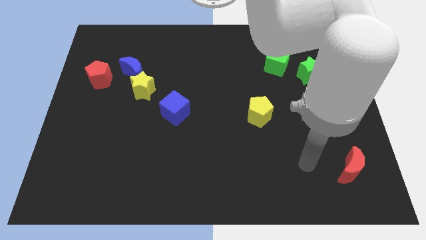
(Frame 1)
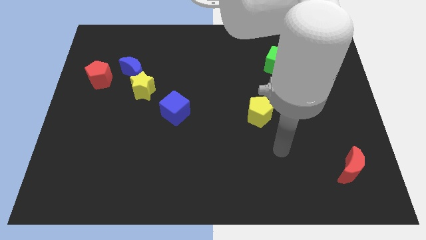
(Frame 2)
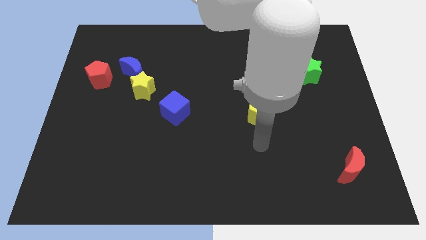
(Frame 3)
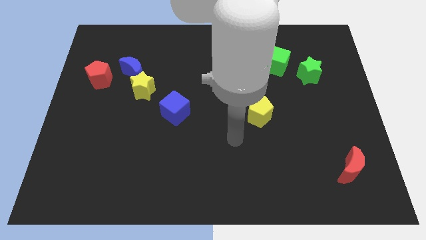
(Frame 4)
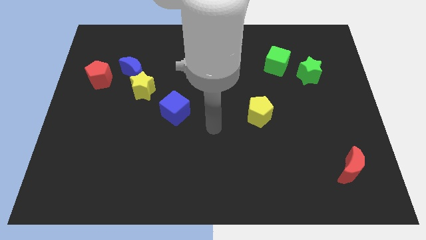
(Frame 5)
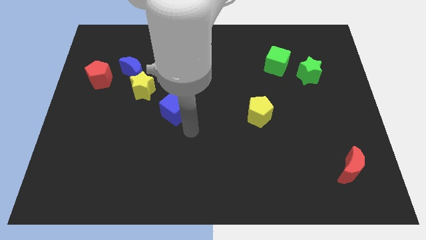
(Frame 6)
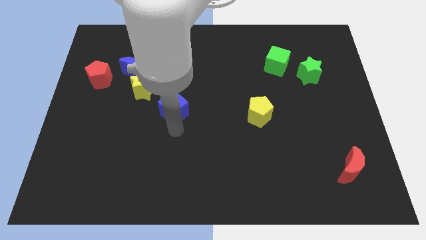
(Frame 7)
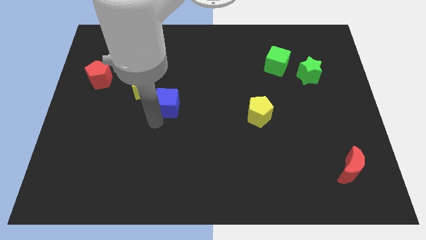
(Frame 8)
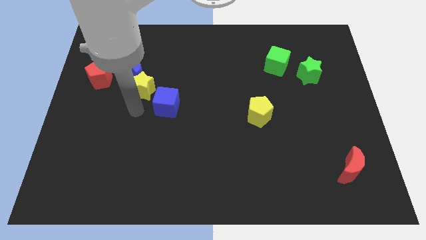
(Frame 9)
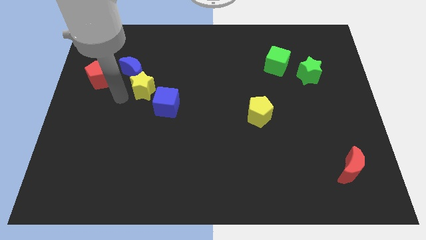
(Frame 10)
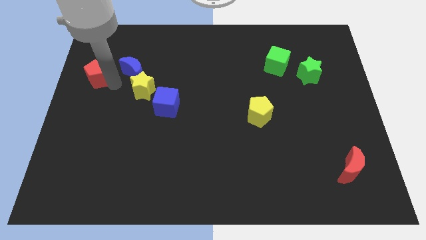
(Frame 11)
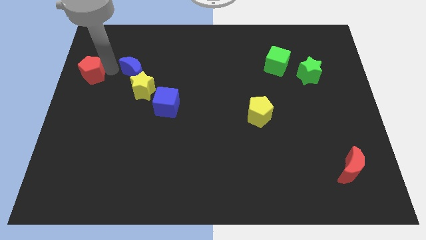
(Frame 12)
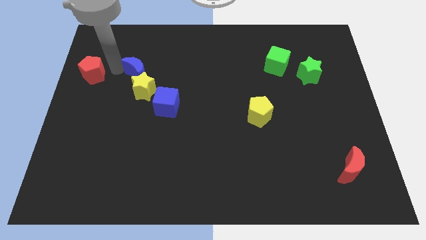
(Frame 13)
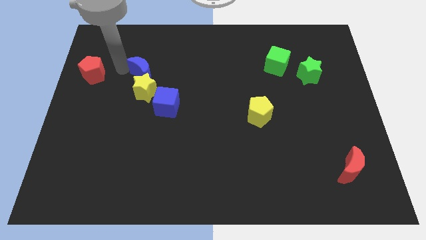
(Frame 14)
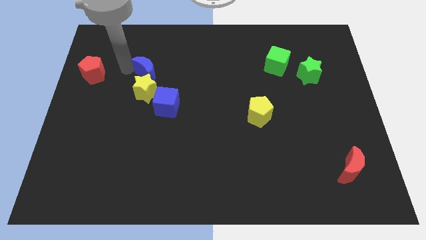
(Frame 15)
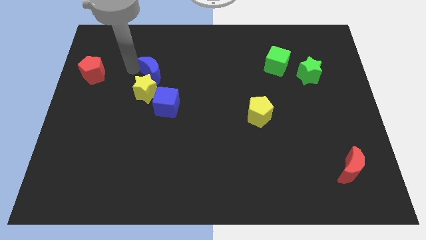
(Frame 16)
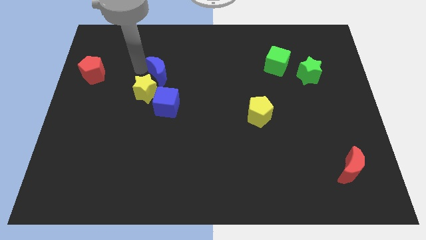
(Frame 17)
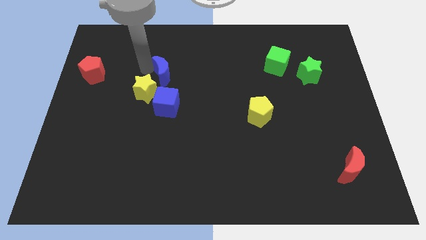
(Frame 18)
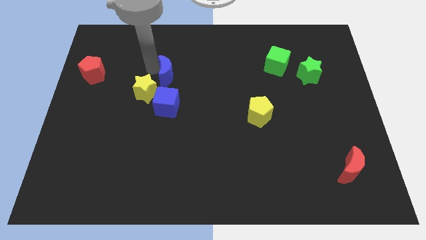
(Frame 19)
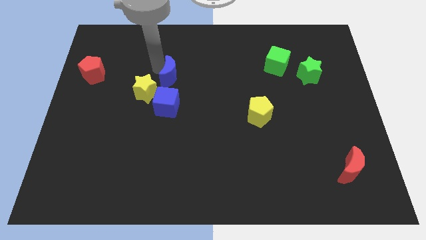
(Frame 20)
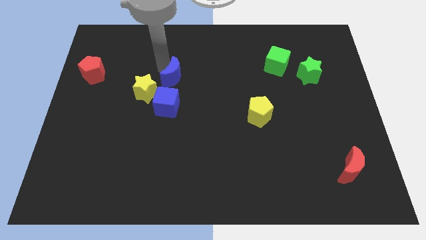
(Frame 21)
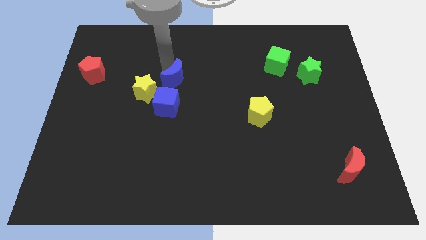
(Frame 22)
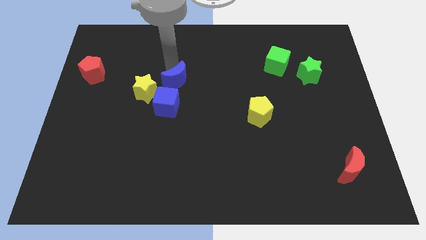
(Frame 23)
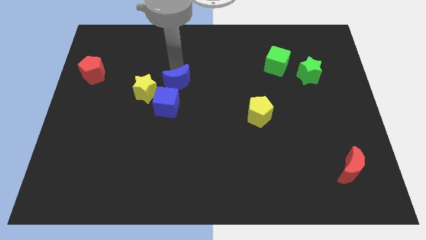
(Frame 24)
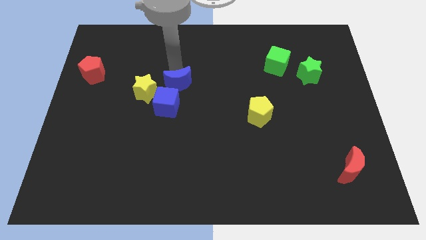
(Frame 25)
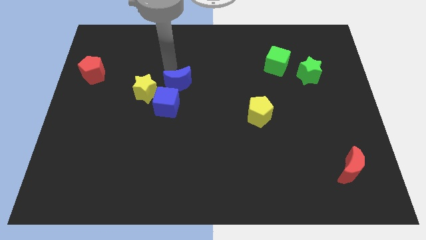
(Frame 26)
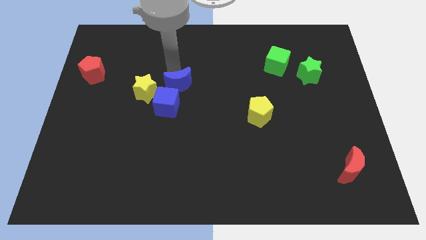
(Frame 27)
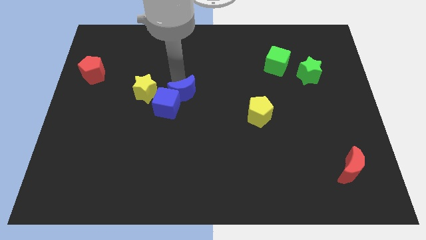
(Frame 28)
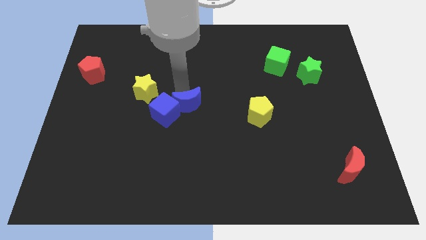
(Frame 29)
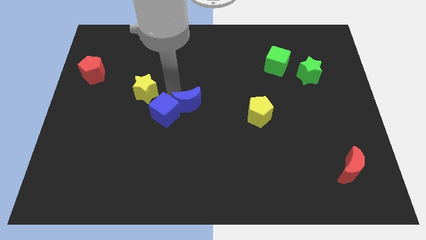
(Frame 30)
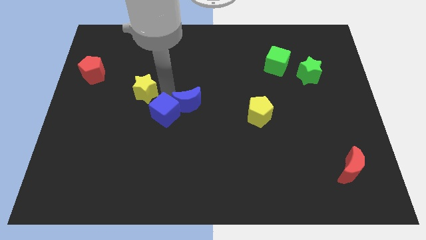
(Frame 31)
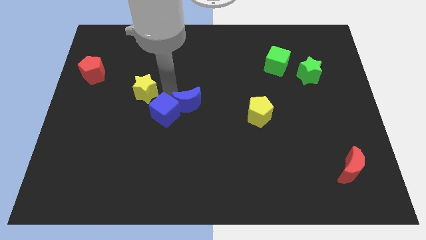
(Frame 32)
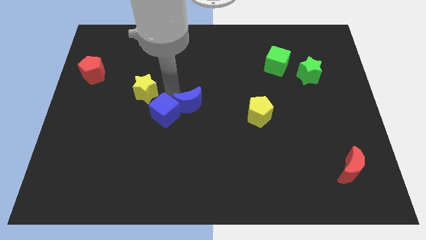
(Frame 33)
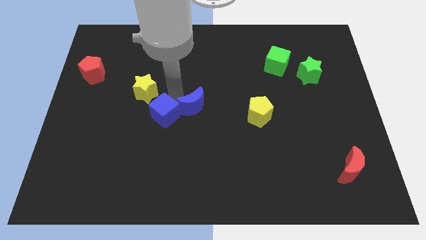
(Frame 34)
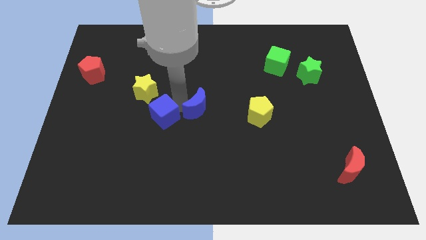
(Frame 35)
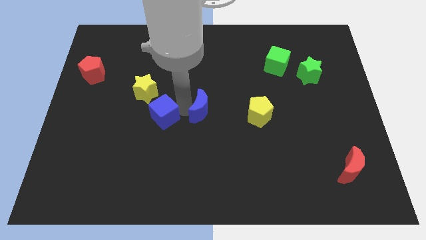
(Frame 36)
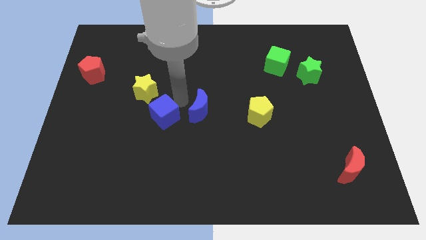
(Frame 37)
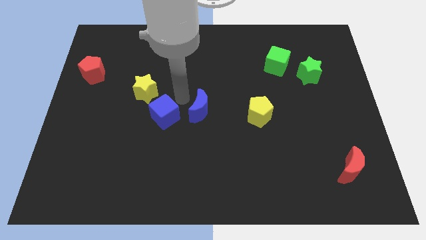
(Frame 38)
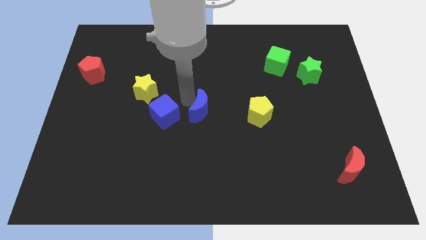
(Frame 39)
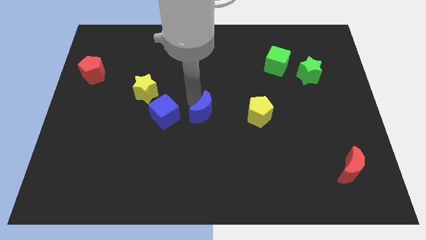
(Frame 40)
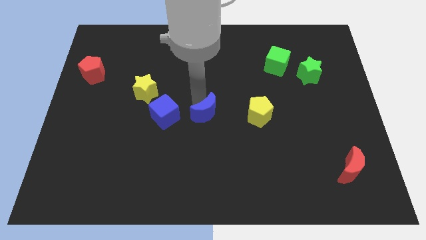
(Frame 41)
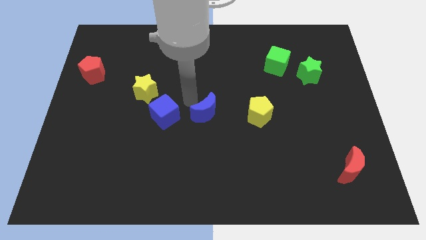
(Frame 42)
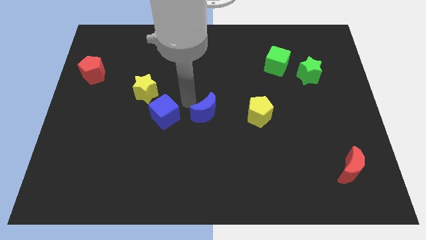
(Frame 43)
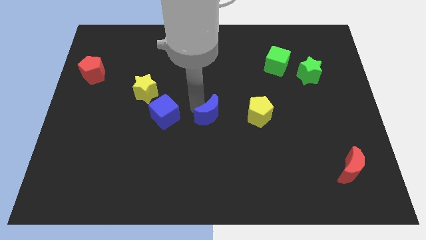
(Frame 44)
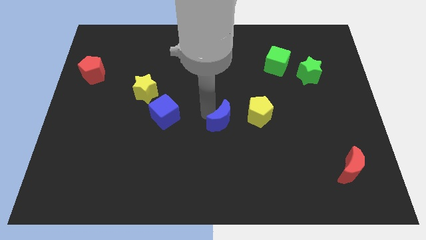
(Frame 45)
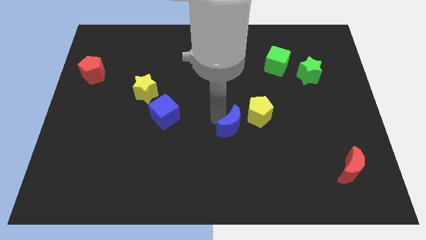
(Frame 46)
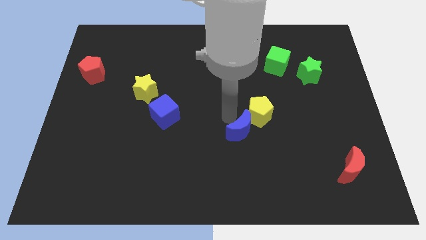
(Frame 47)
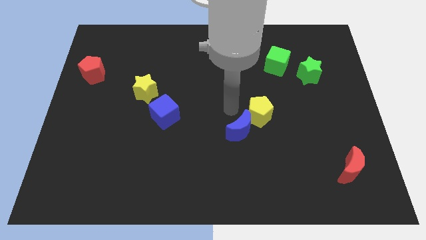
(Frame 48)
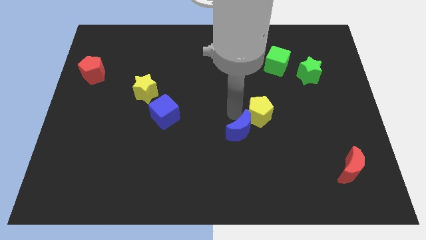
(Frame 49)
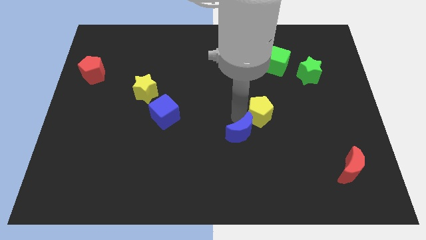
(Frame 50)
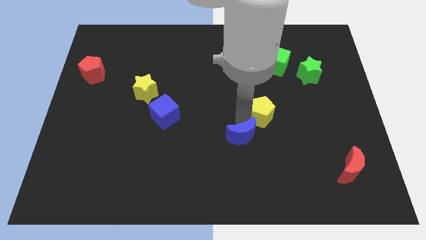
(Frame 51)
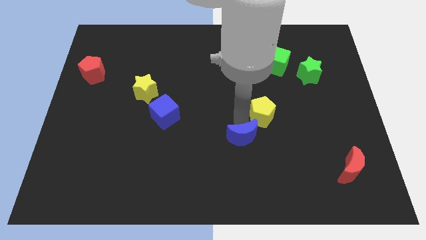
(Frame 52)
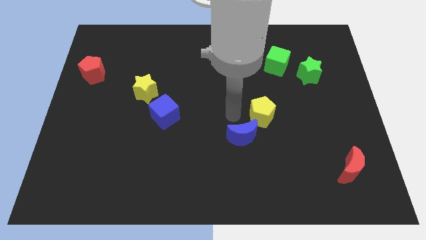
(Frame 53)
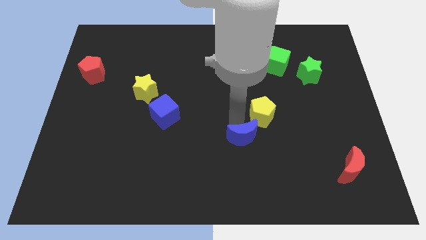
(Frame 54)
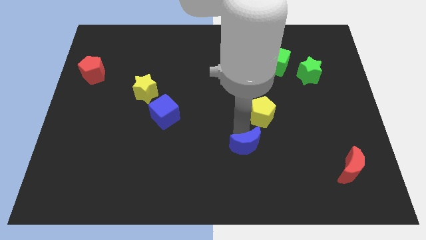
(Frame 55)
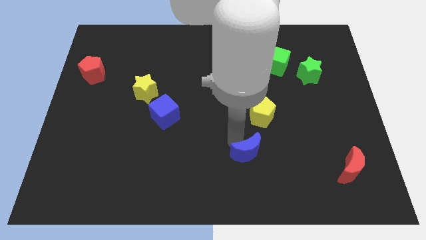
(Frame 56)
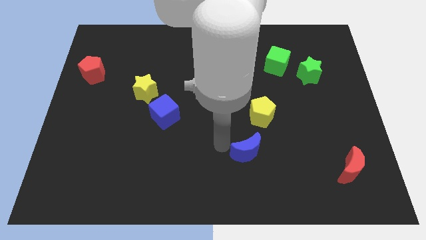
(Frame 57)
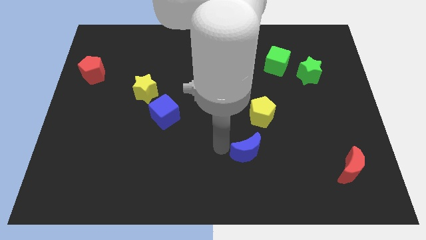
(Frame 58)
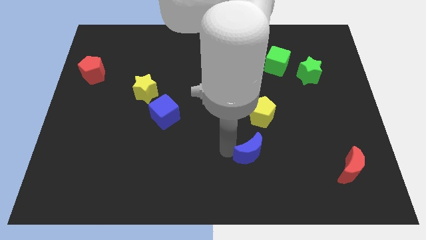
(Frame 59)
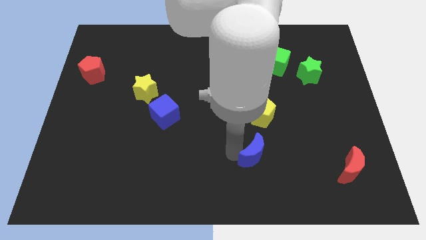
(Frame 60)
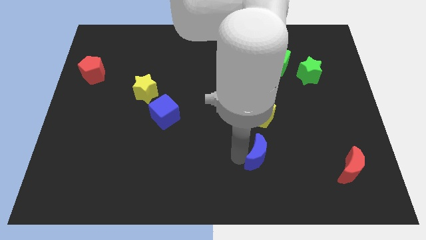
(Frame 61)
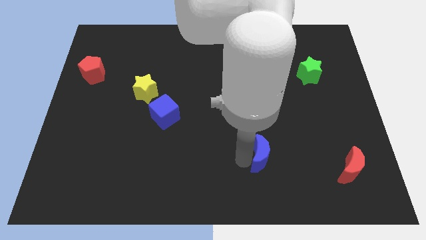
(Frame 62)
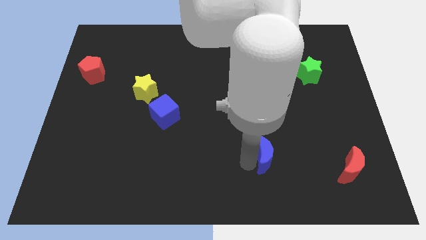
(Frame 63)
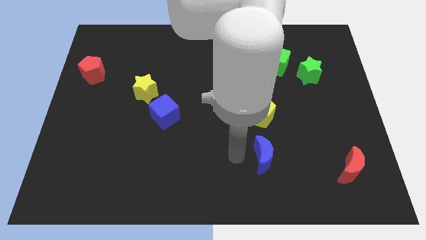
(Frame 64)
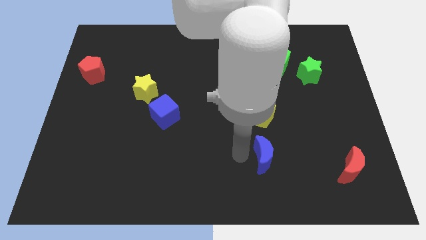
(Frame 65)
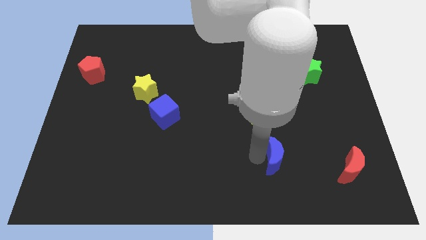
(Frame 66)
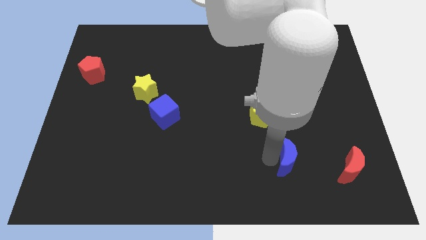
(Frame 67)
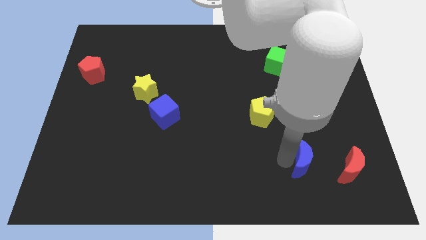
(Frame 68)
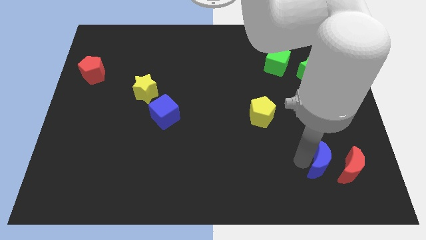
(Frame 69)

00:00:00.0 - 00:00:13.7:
push the blue moon close to the red moon
